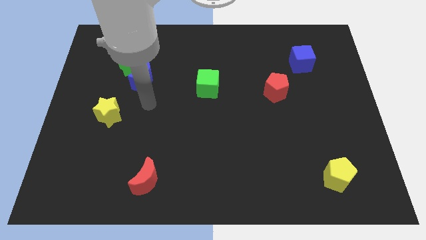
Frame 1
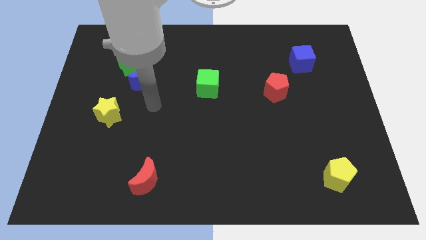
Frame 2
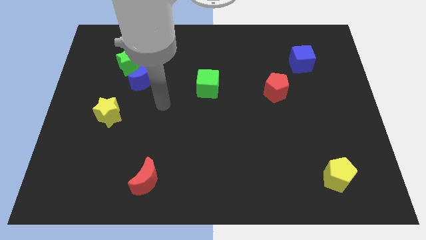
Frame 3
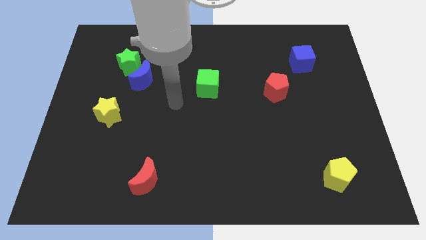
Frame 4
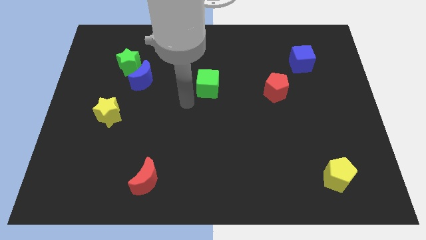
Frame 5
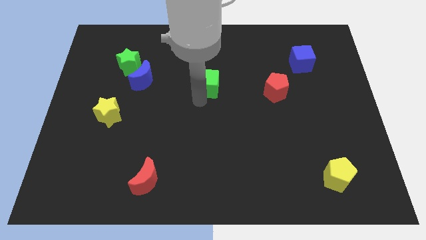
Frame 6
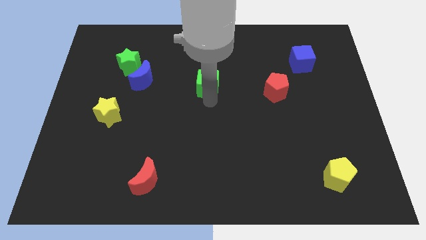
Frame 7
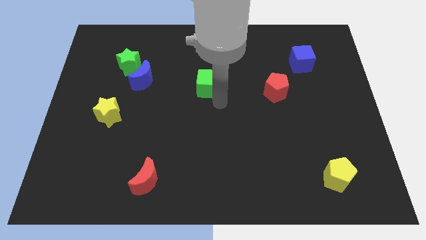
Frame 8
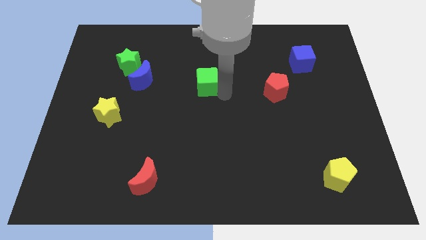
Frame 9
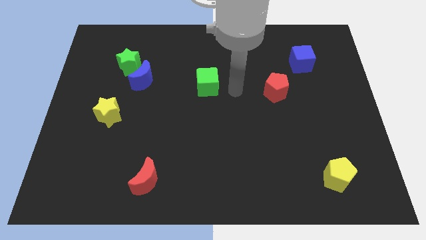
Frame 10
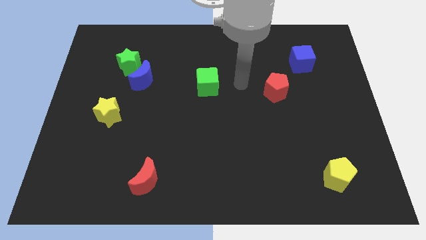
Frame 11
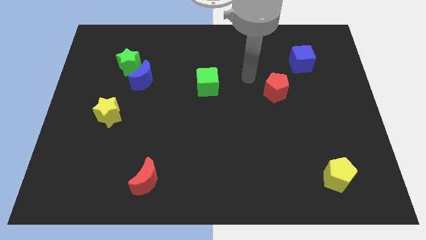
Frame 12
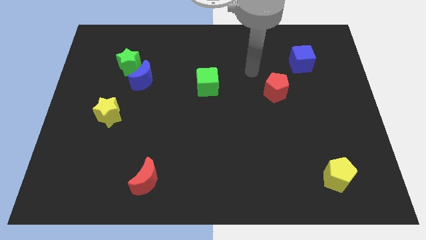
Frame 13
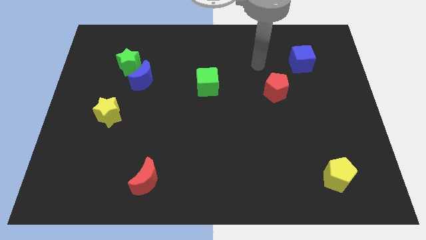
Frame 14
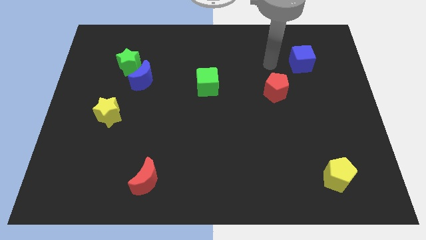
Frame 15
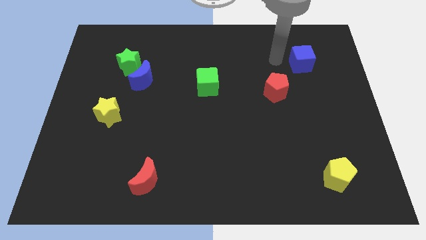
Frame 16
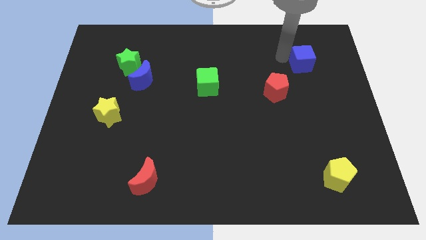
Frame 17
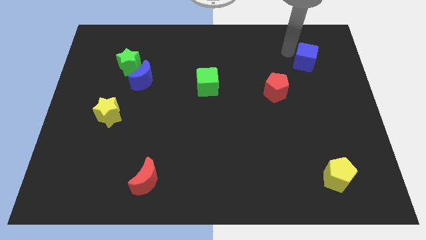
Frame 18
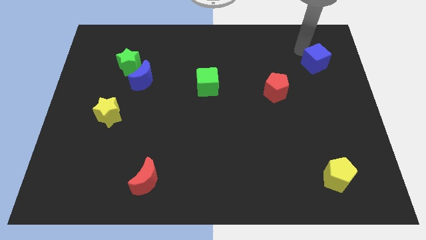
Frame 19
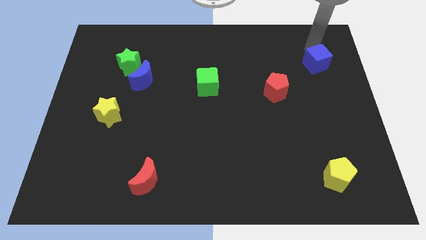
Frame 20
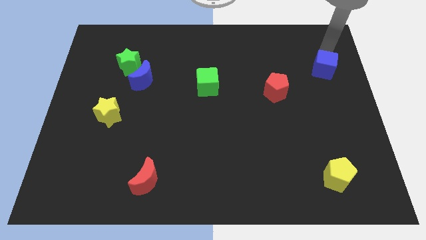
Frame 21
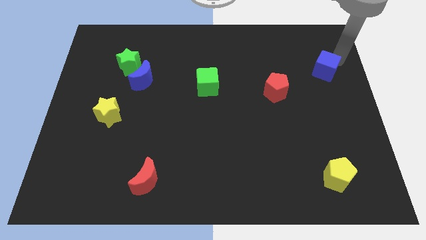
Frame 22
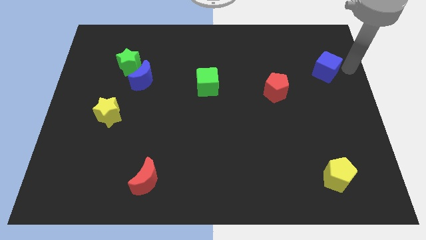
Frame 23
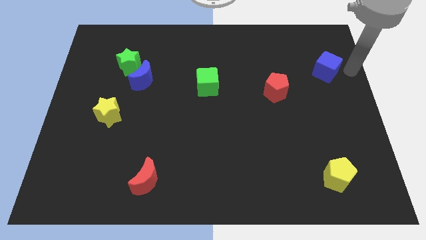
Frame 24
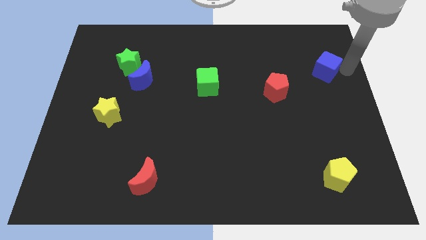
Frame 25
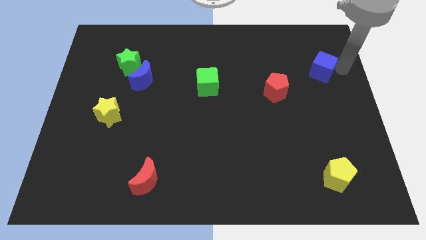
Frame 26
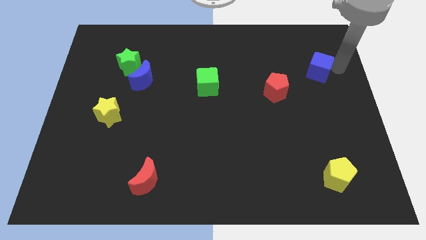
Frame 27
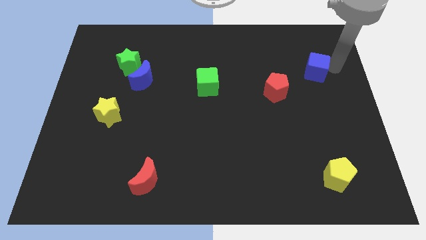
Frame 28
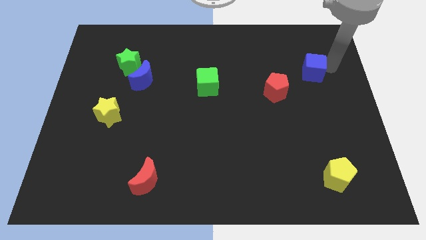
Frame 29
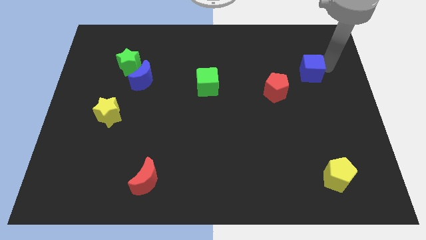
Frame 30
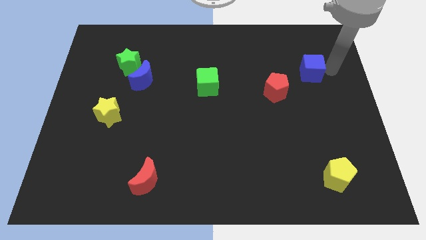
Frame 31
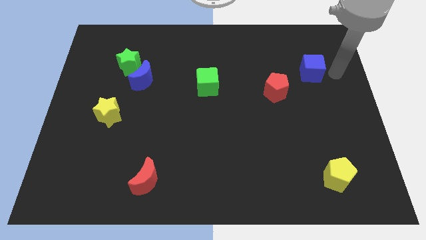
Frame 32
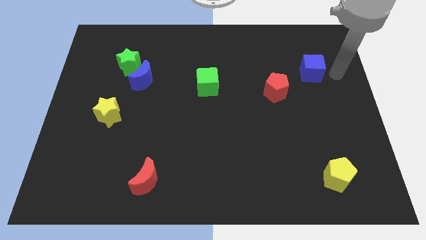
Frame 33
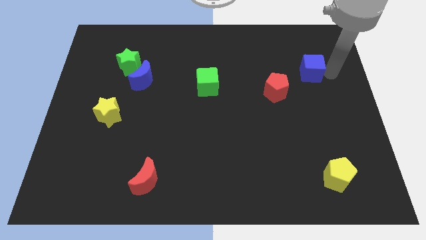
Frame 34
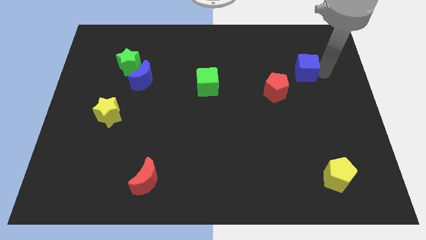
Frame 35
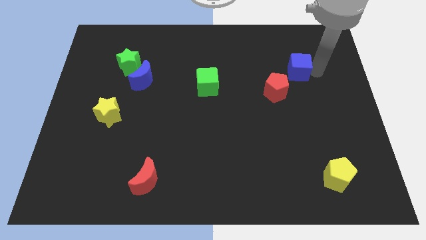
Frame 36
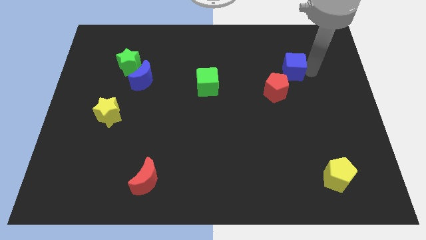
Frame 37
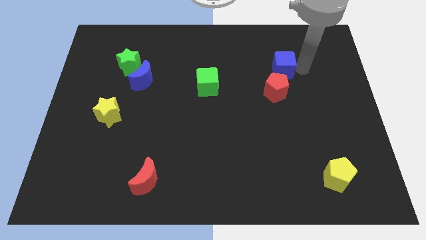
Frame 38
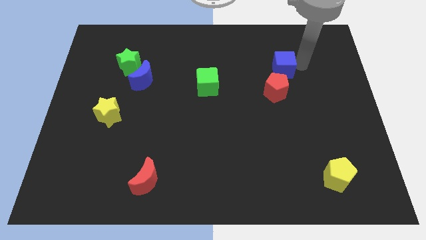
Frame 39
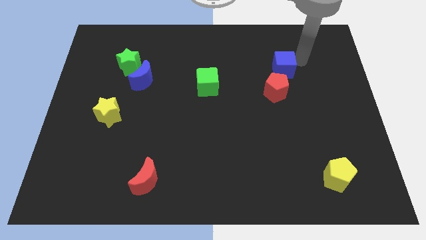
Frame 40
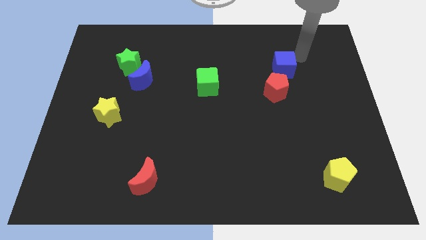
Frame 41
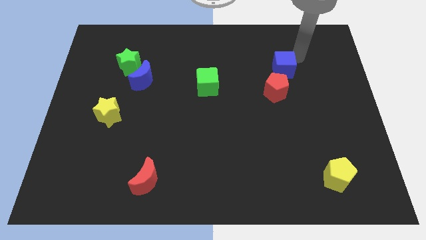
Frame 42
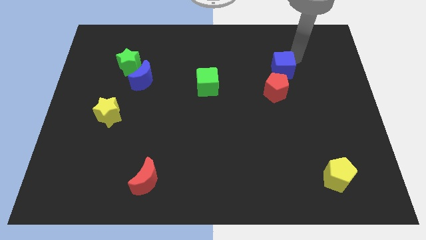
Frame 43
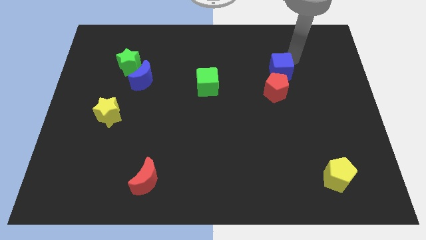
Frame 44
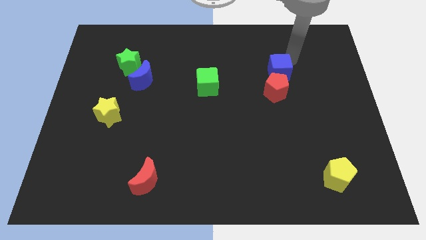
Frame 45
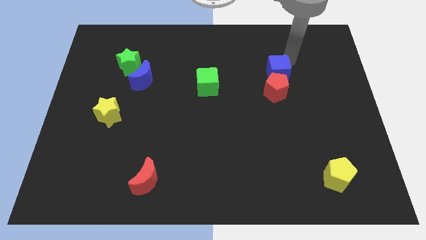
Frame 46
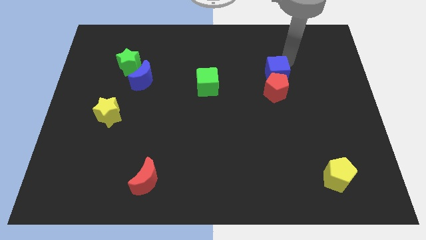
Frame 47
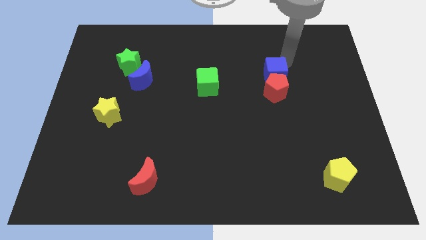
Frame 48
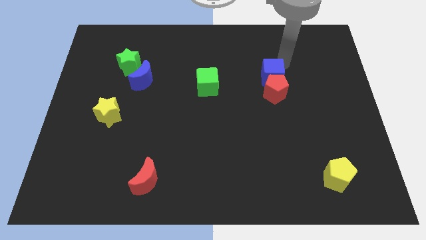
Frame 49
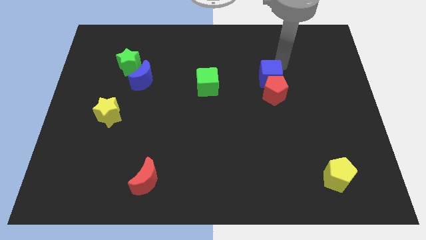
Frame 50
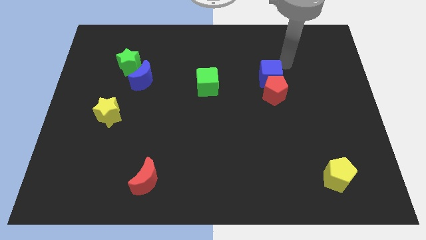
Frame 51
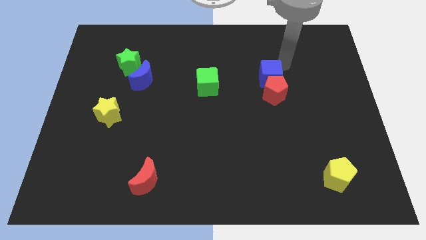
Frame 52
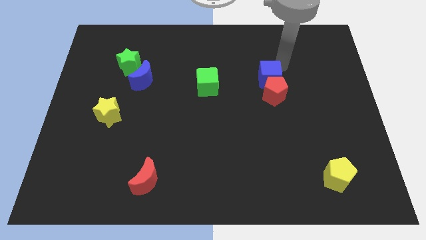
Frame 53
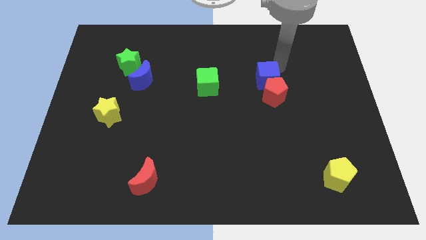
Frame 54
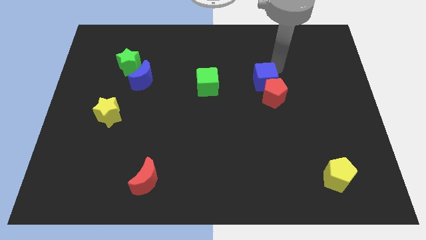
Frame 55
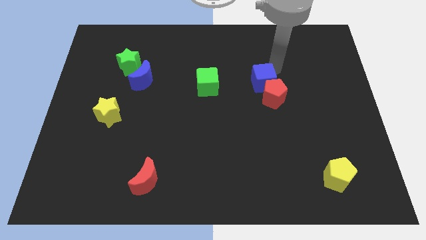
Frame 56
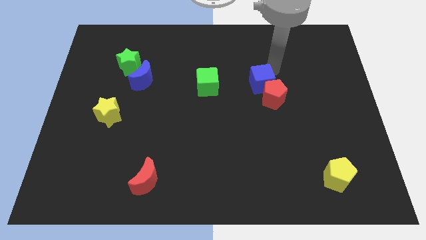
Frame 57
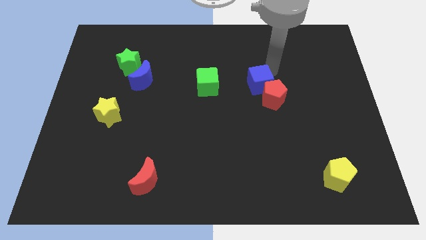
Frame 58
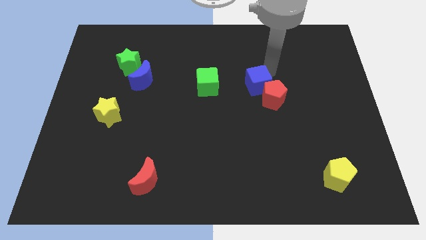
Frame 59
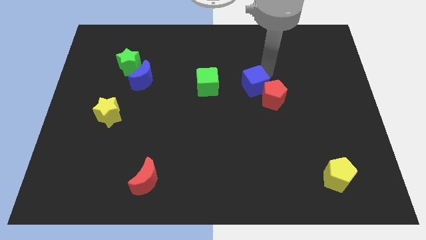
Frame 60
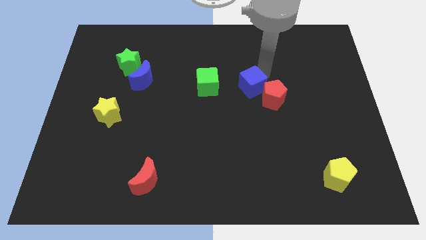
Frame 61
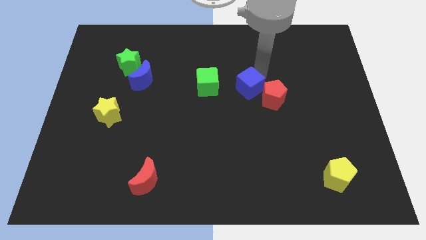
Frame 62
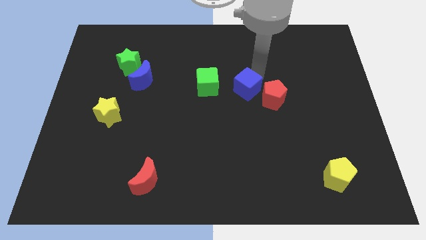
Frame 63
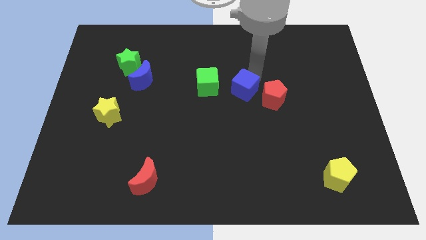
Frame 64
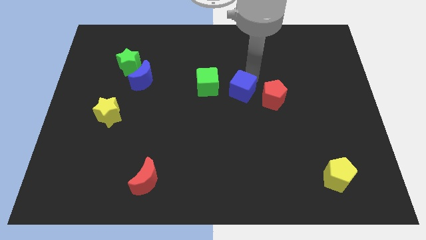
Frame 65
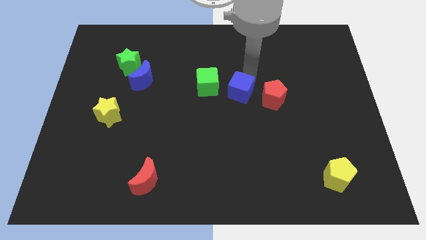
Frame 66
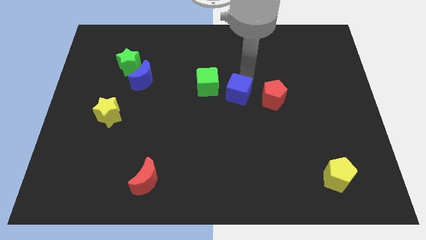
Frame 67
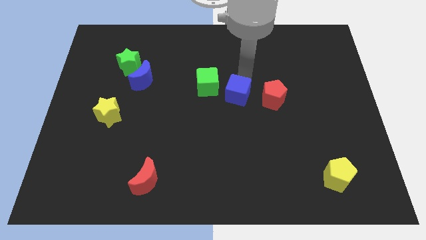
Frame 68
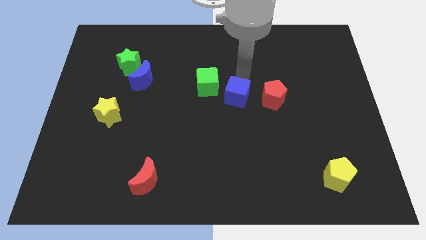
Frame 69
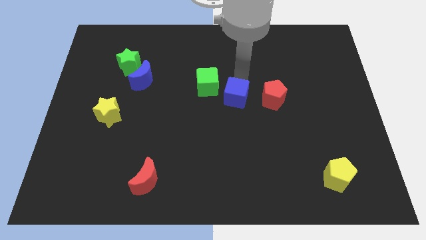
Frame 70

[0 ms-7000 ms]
slide the blue cube downwards and then to the left

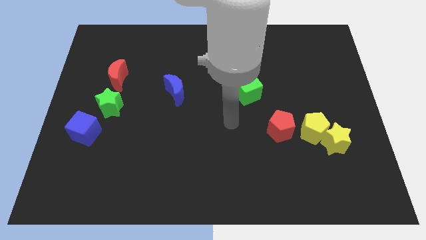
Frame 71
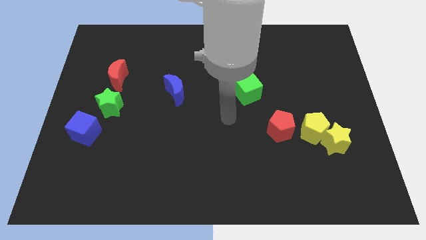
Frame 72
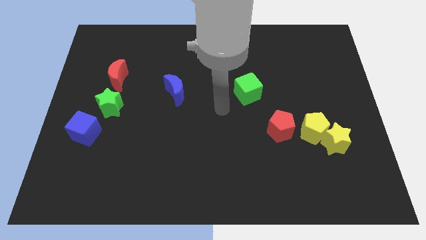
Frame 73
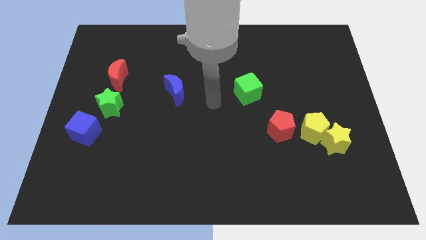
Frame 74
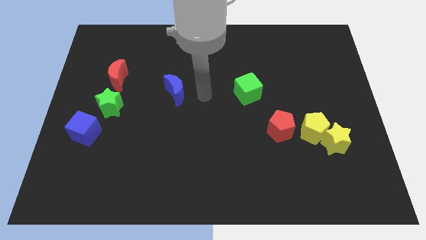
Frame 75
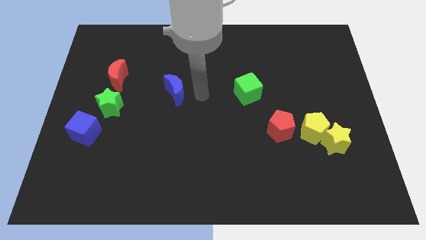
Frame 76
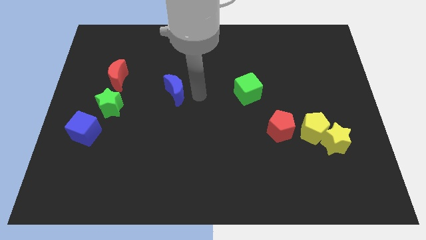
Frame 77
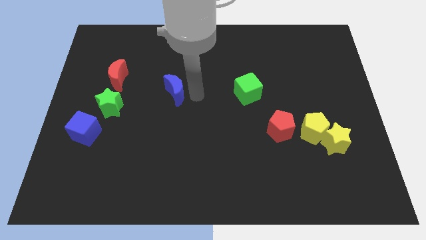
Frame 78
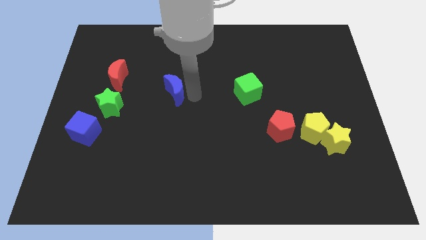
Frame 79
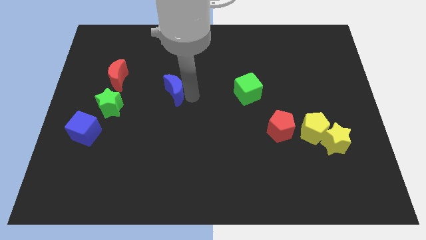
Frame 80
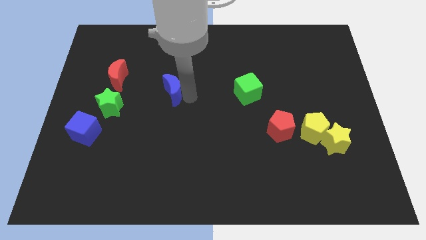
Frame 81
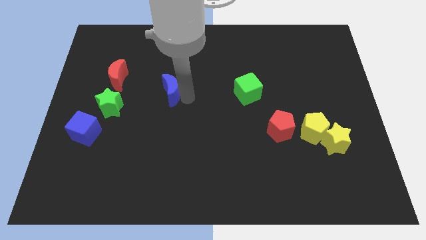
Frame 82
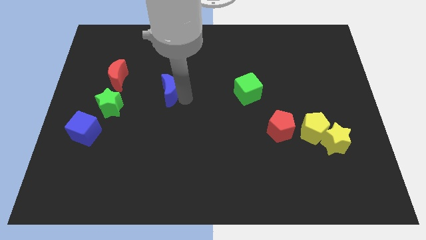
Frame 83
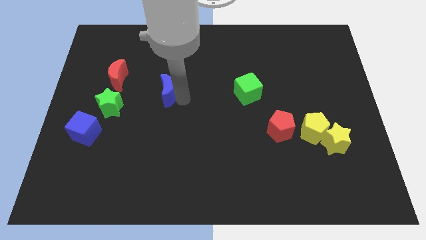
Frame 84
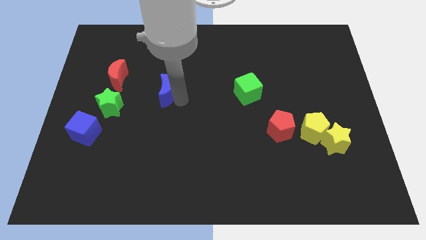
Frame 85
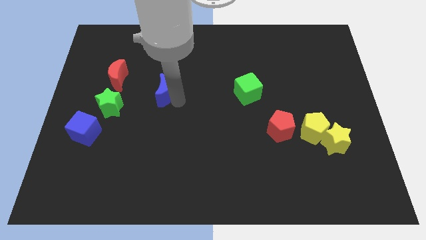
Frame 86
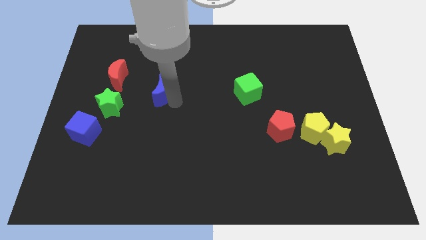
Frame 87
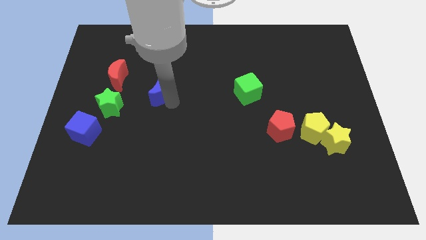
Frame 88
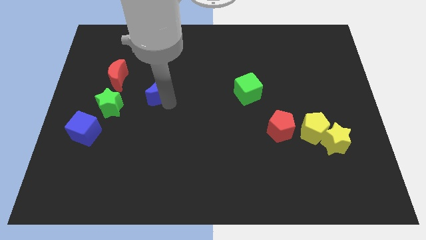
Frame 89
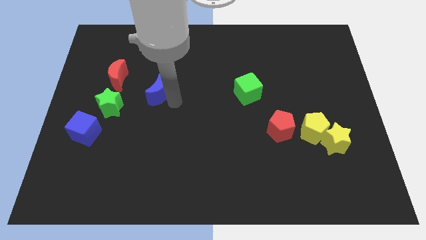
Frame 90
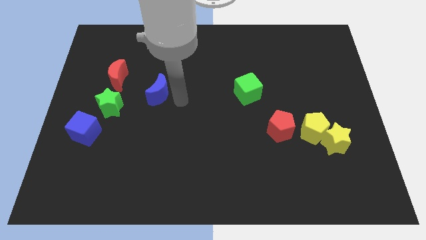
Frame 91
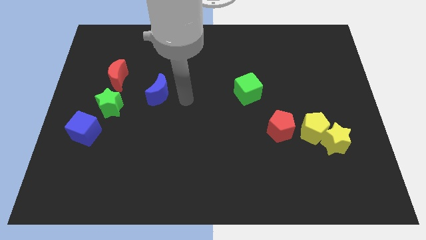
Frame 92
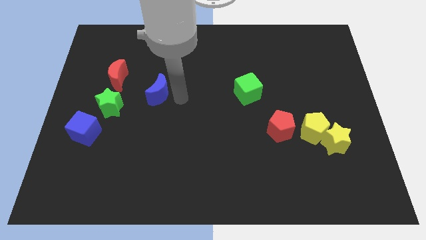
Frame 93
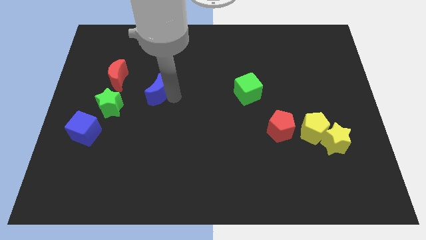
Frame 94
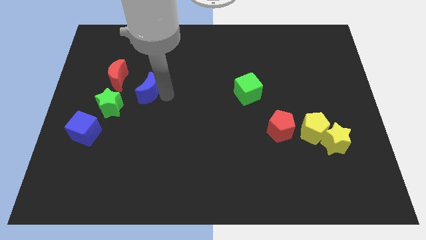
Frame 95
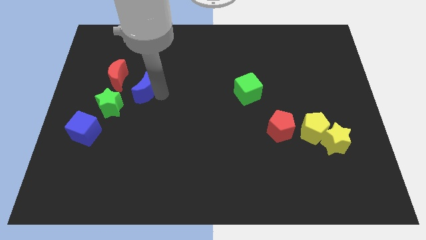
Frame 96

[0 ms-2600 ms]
push the blue moon left somewhat
